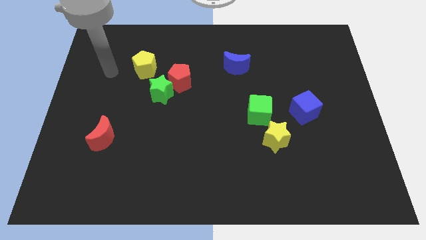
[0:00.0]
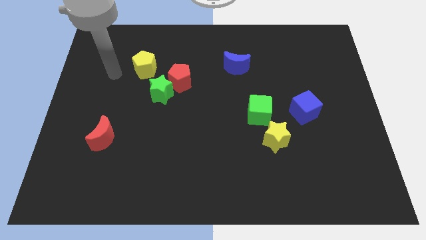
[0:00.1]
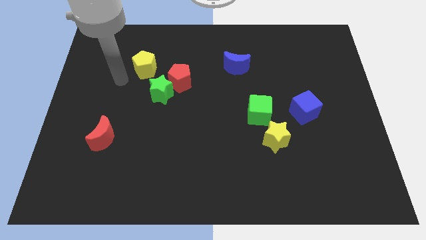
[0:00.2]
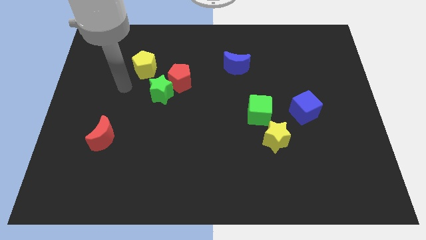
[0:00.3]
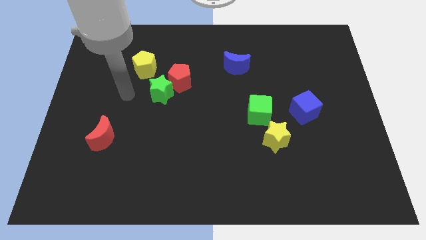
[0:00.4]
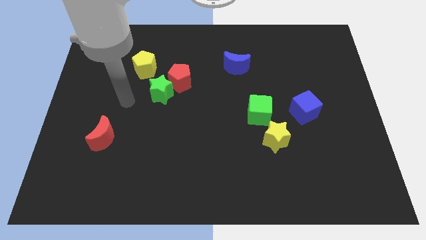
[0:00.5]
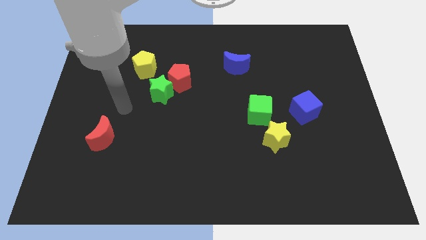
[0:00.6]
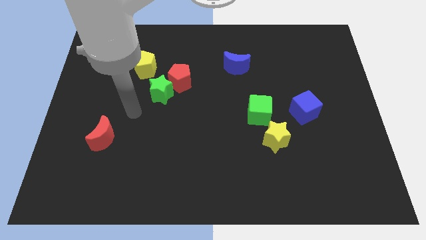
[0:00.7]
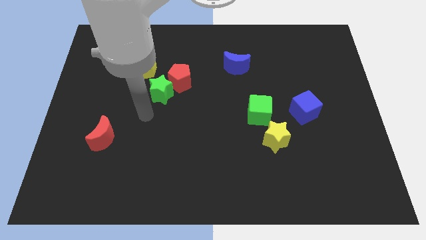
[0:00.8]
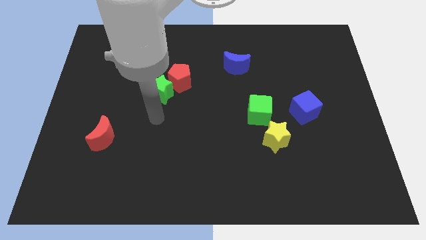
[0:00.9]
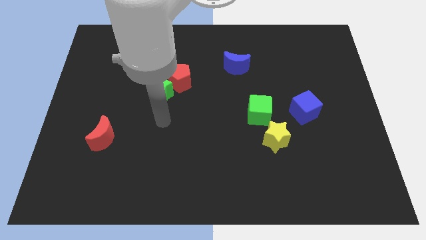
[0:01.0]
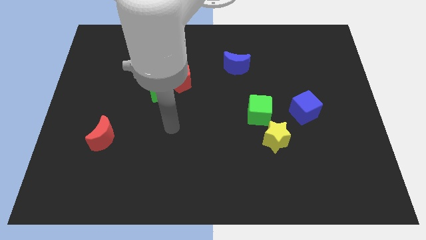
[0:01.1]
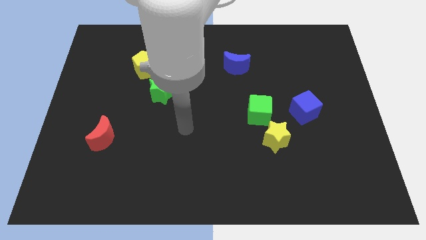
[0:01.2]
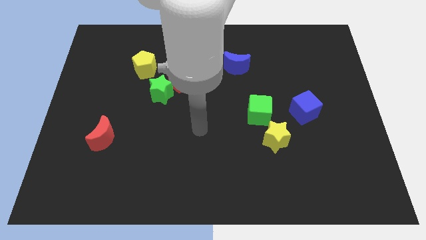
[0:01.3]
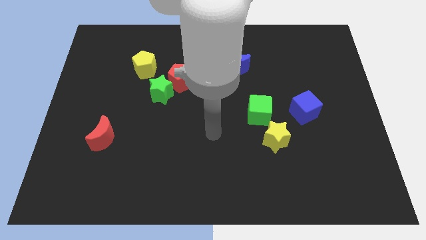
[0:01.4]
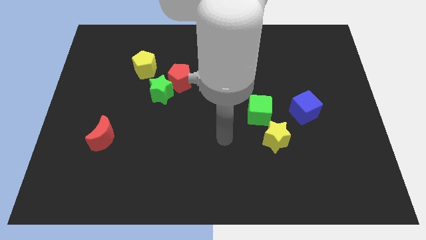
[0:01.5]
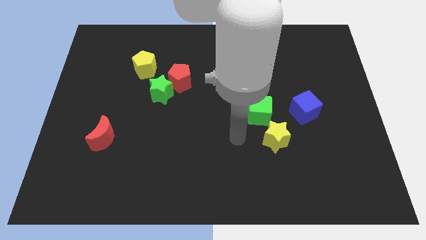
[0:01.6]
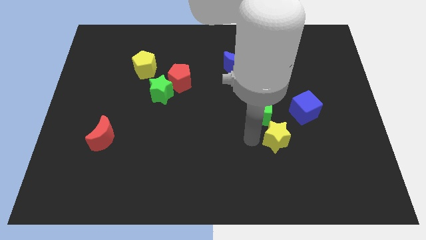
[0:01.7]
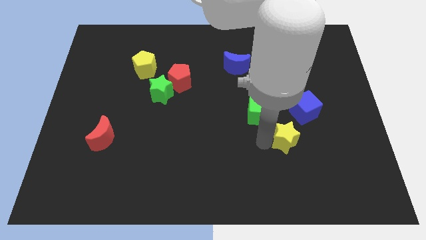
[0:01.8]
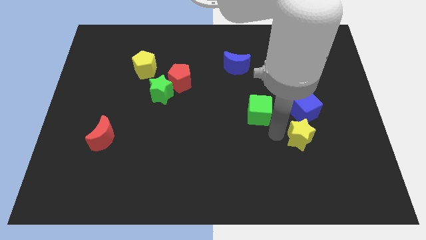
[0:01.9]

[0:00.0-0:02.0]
move the green cube away from the yellow star

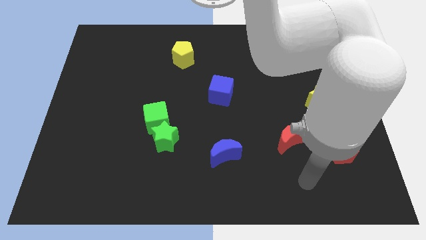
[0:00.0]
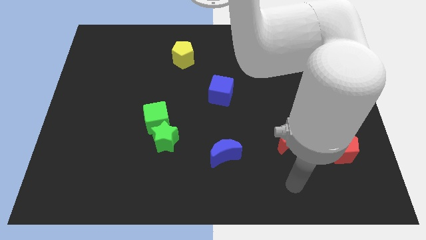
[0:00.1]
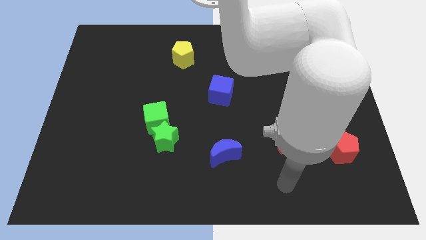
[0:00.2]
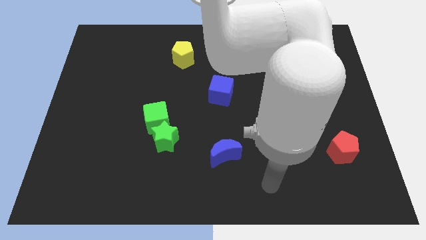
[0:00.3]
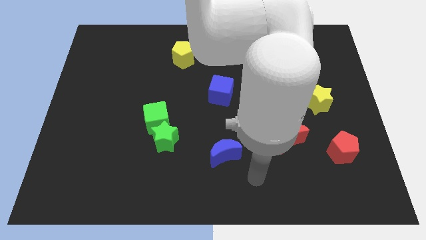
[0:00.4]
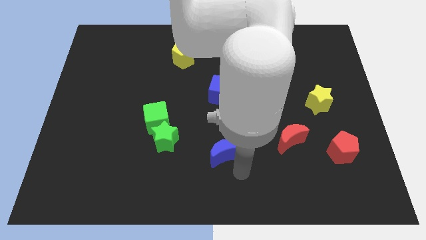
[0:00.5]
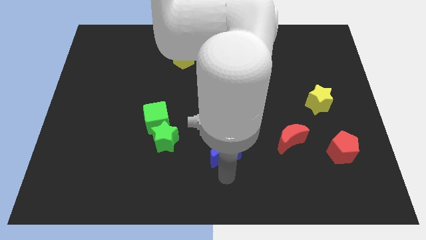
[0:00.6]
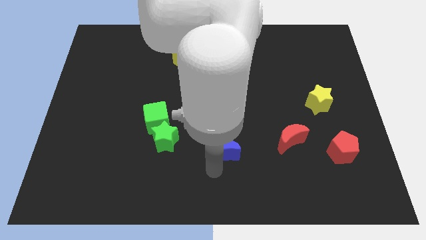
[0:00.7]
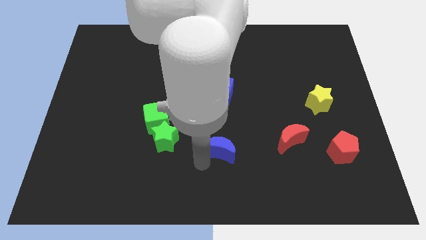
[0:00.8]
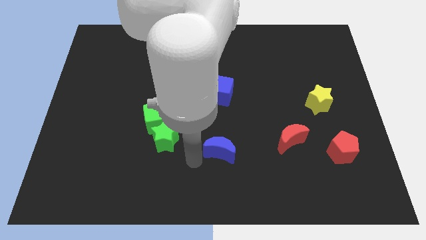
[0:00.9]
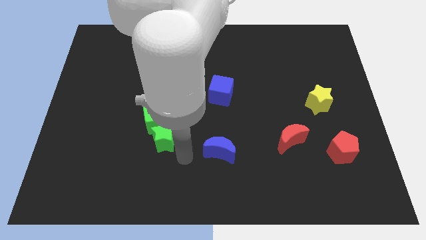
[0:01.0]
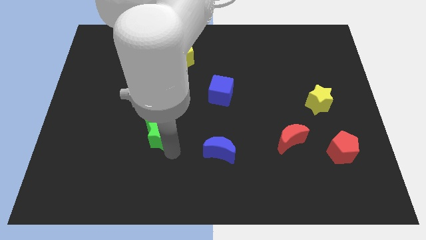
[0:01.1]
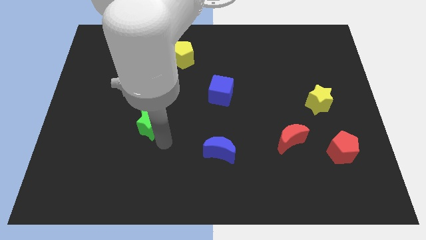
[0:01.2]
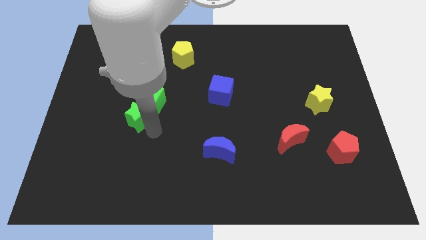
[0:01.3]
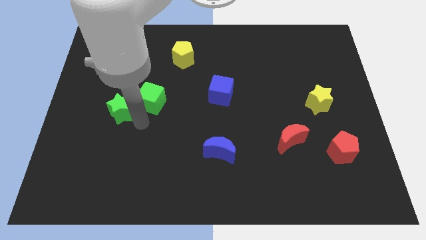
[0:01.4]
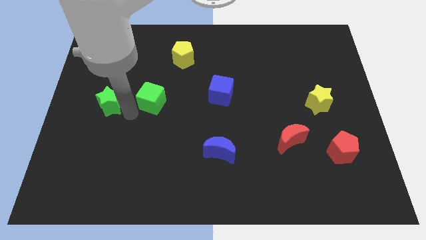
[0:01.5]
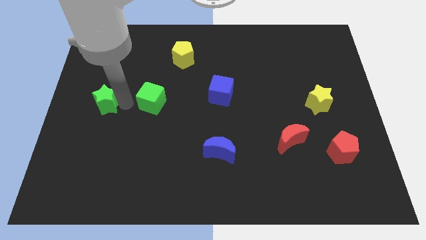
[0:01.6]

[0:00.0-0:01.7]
pull the green cube apart from the green star

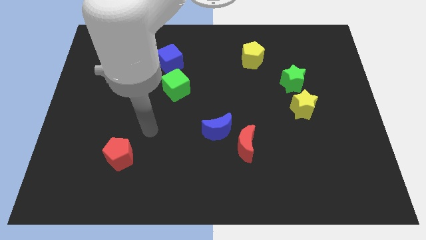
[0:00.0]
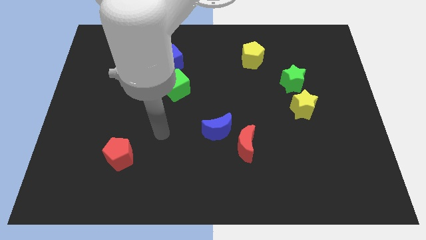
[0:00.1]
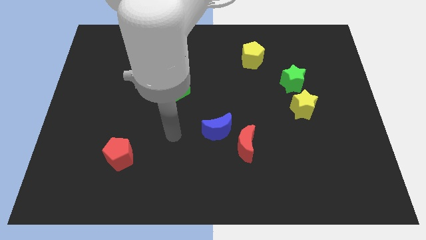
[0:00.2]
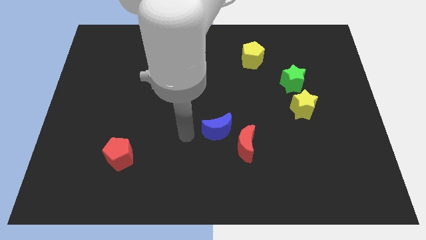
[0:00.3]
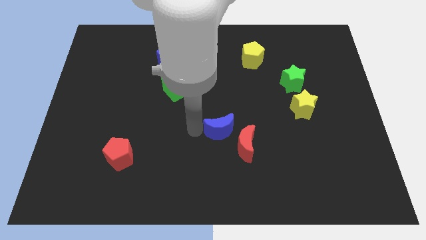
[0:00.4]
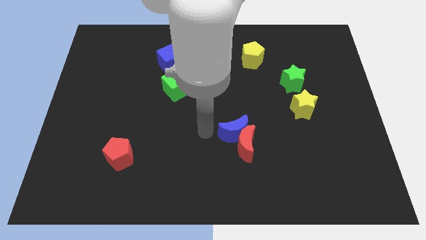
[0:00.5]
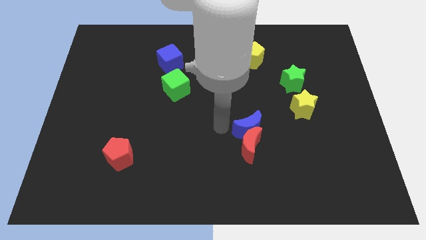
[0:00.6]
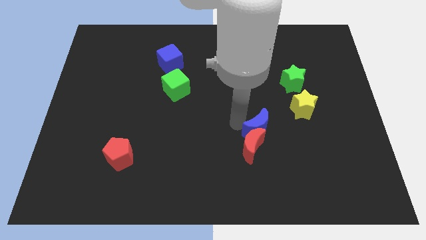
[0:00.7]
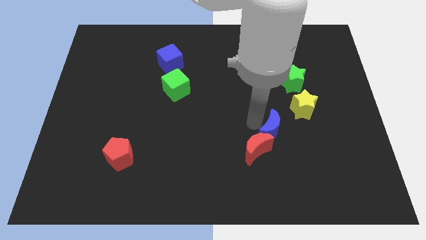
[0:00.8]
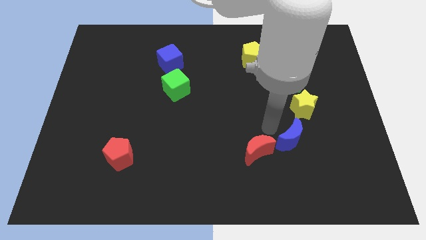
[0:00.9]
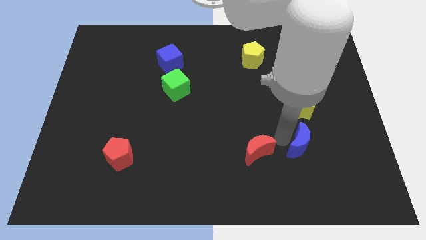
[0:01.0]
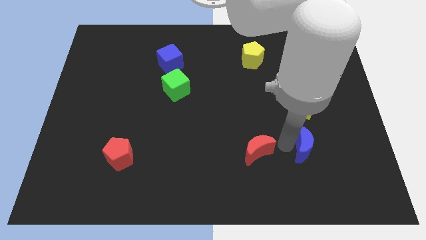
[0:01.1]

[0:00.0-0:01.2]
separate the red moon from the blue moon

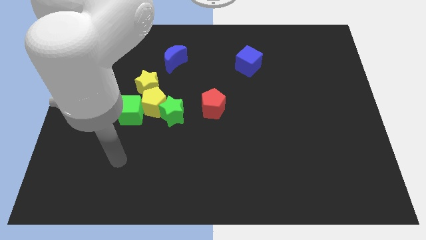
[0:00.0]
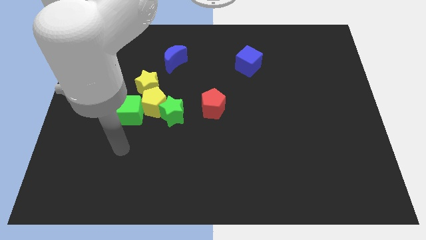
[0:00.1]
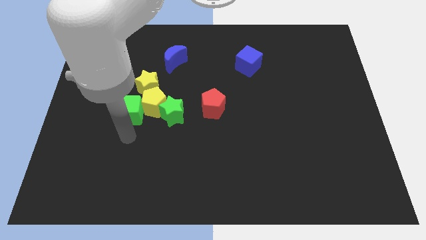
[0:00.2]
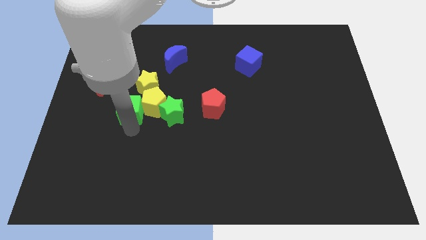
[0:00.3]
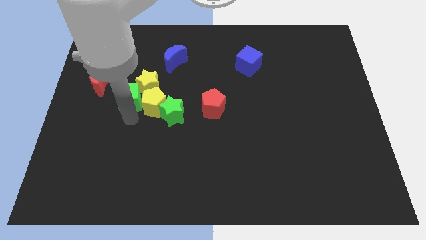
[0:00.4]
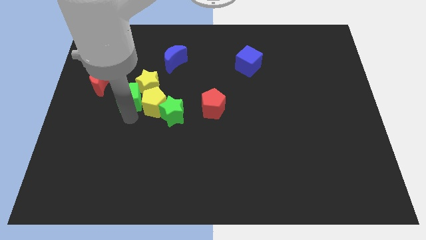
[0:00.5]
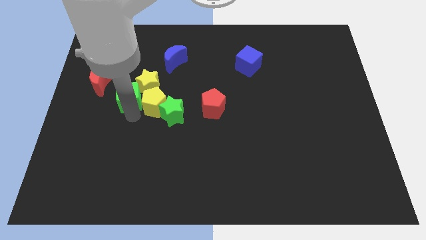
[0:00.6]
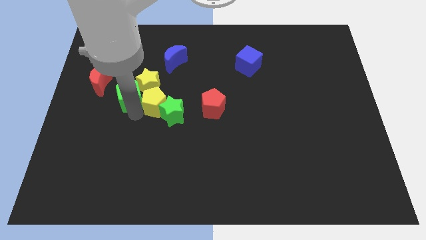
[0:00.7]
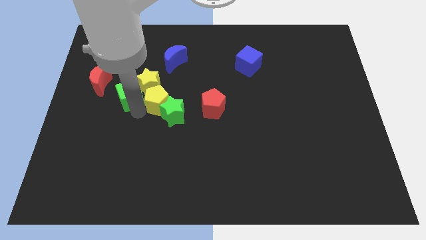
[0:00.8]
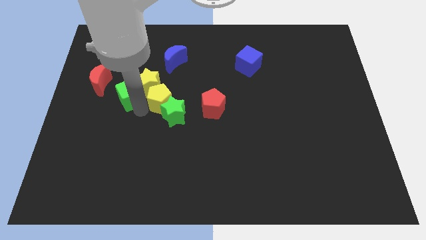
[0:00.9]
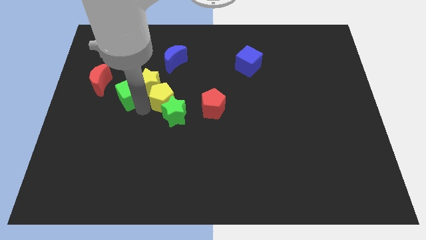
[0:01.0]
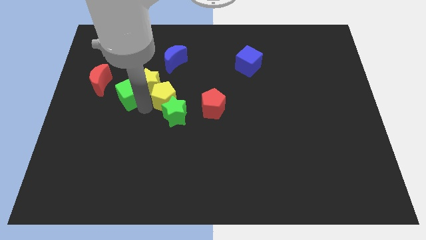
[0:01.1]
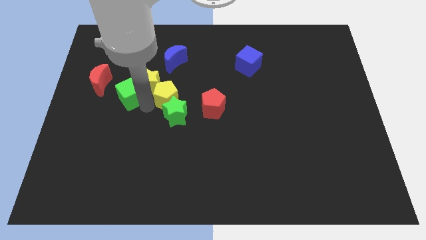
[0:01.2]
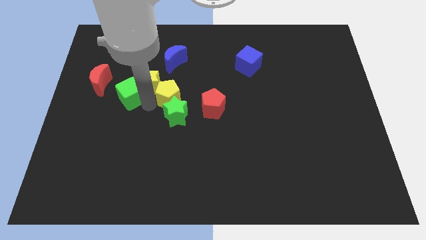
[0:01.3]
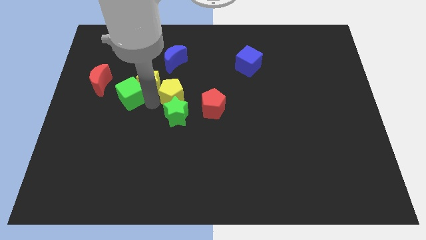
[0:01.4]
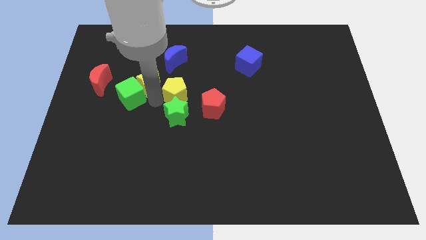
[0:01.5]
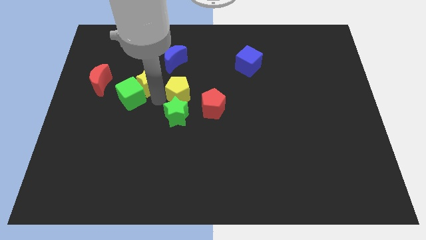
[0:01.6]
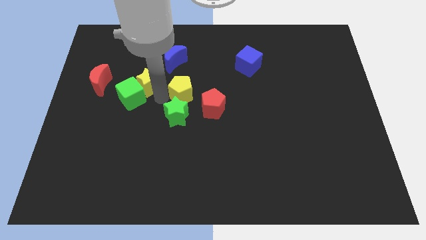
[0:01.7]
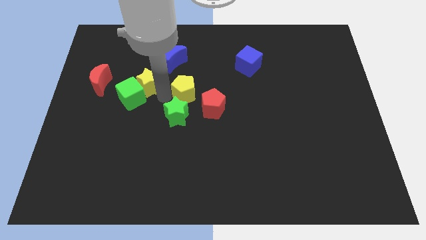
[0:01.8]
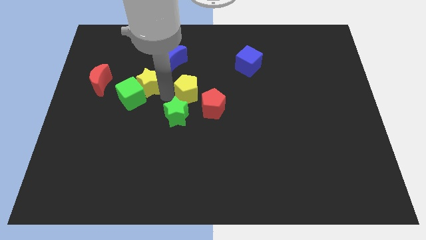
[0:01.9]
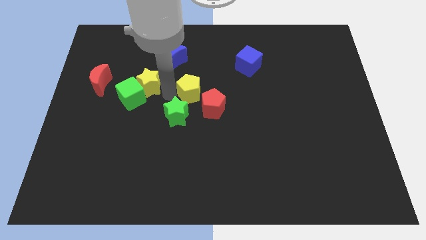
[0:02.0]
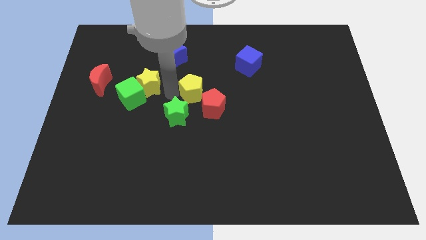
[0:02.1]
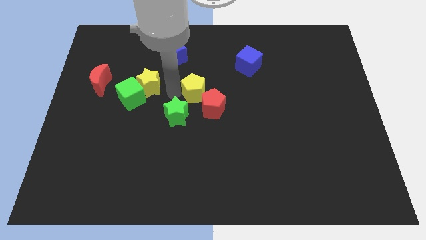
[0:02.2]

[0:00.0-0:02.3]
pull the yellow pentagon apart from the clump

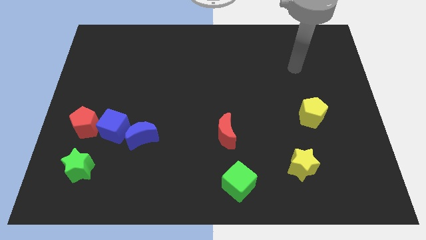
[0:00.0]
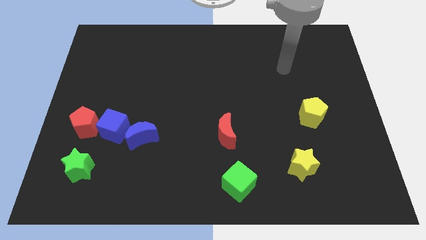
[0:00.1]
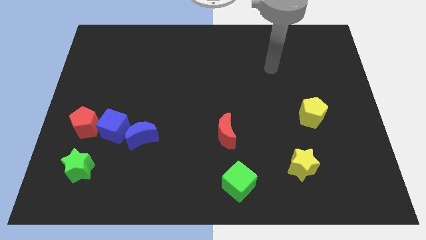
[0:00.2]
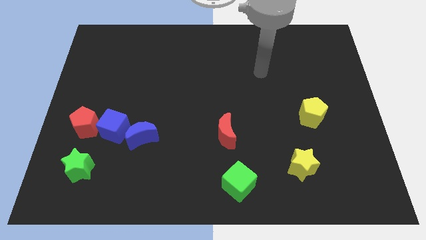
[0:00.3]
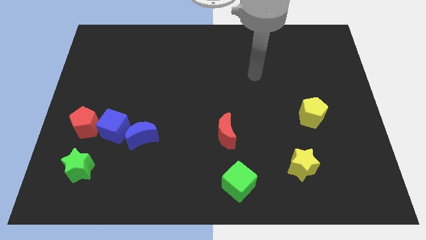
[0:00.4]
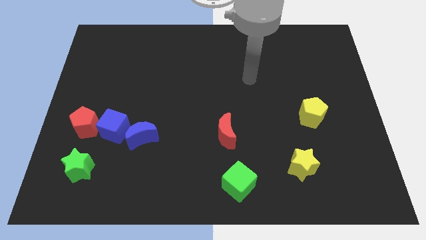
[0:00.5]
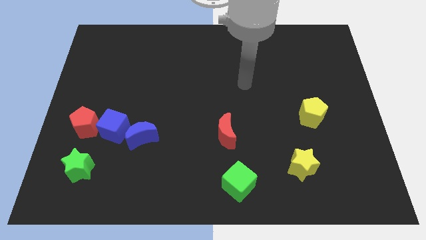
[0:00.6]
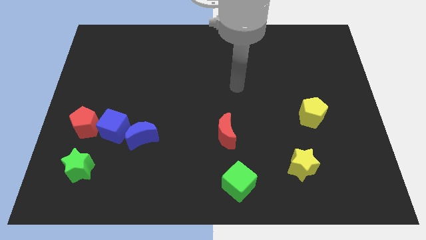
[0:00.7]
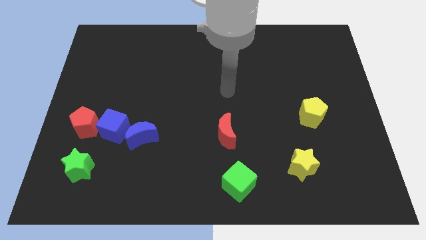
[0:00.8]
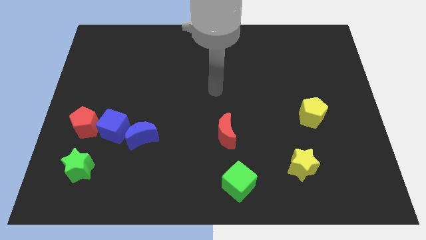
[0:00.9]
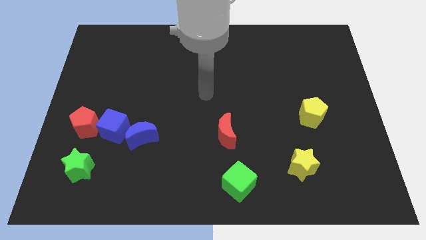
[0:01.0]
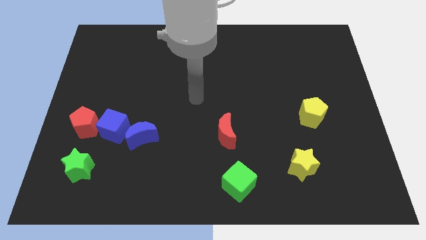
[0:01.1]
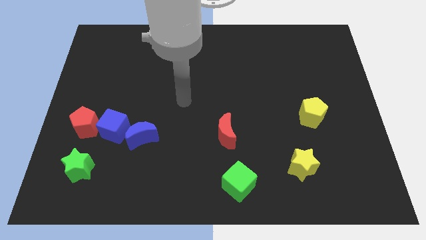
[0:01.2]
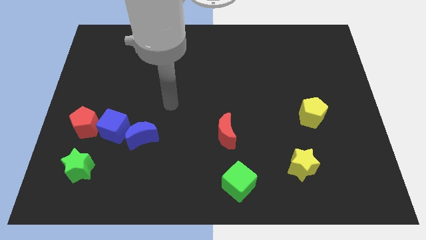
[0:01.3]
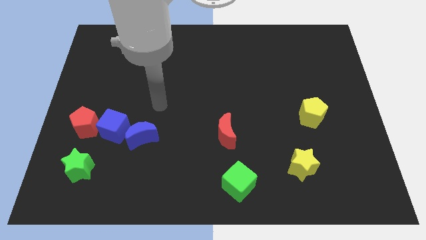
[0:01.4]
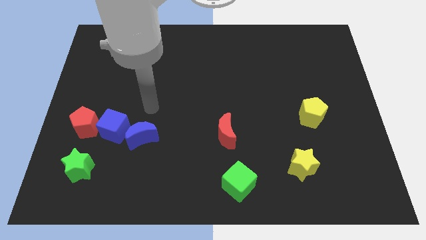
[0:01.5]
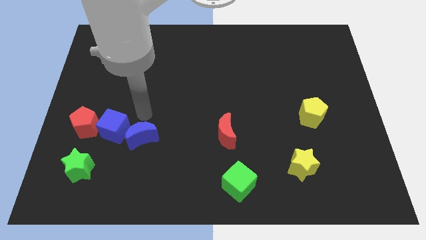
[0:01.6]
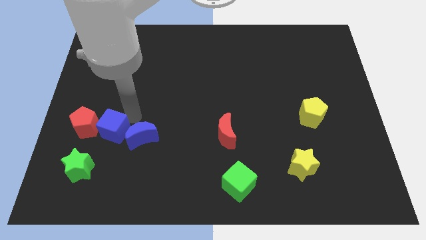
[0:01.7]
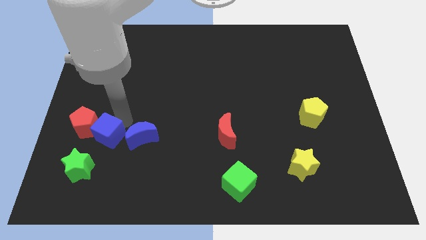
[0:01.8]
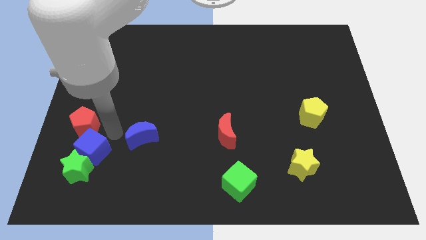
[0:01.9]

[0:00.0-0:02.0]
separate the blue moon from the blue cube

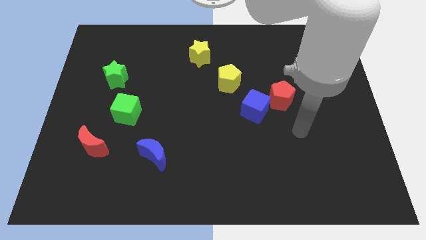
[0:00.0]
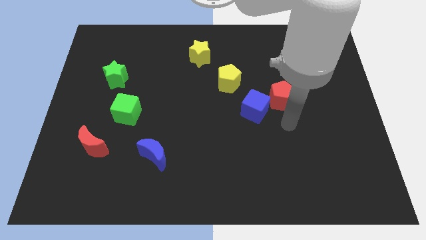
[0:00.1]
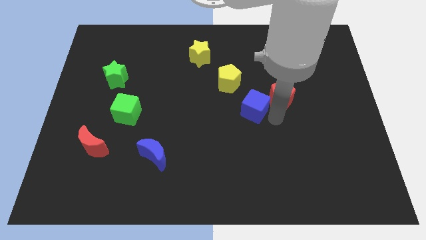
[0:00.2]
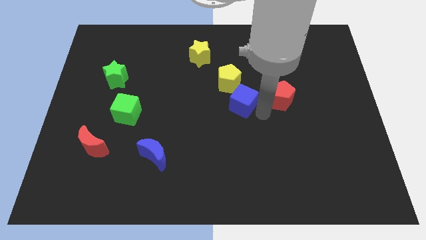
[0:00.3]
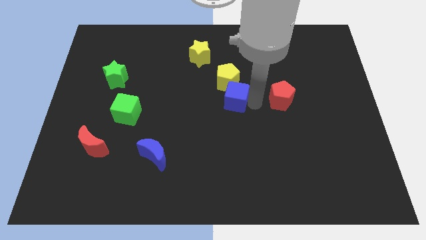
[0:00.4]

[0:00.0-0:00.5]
pull the red pentagon apart from the blue cube
